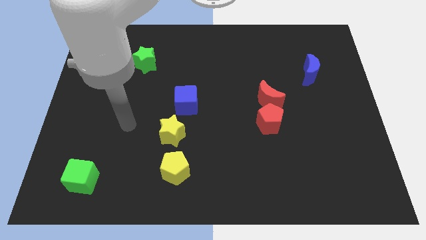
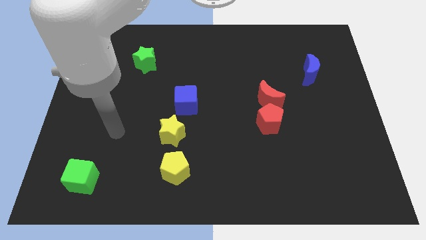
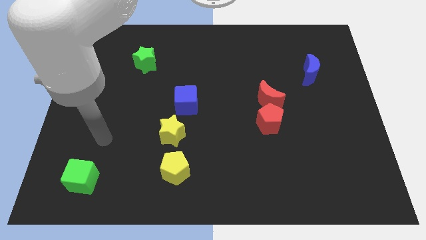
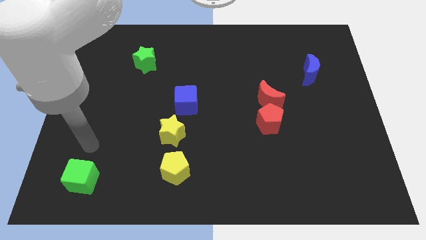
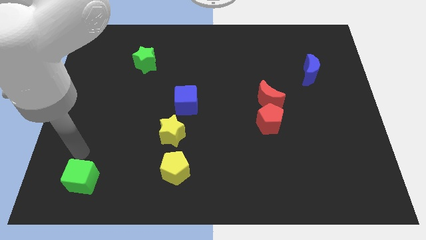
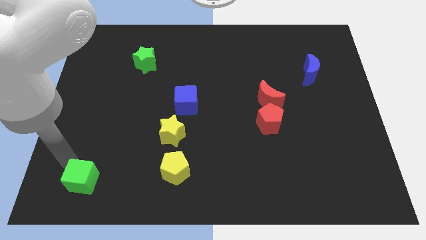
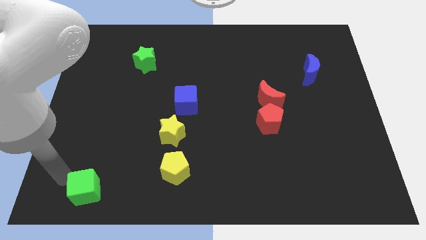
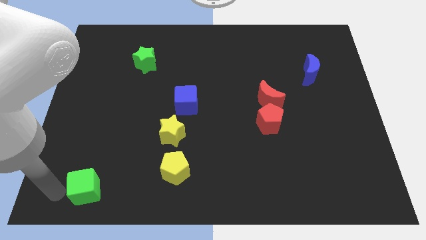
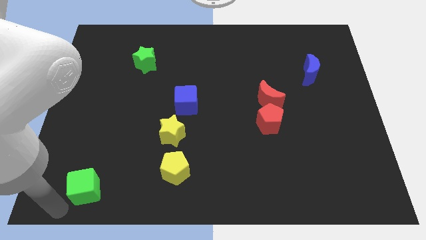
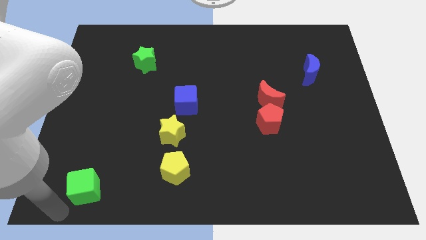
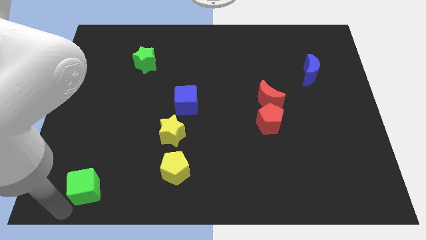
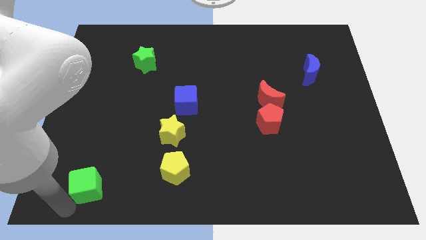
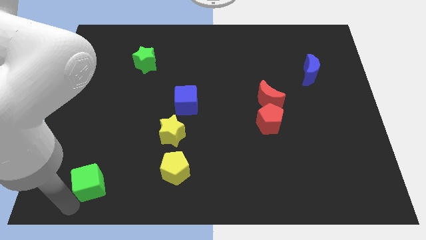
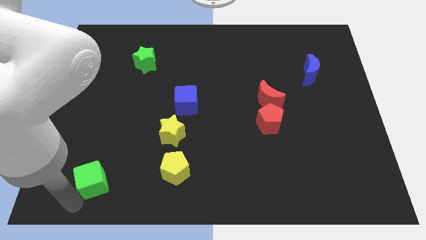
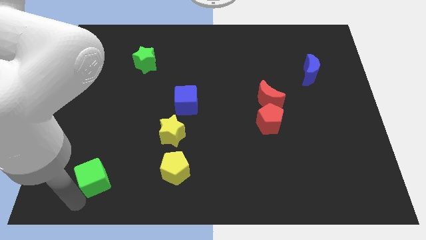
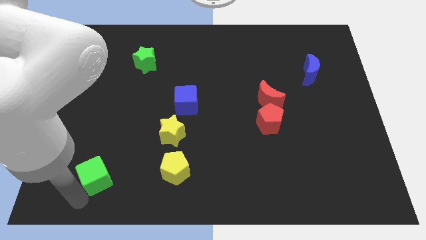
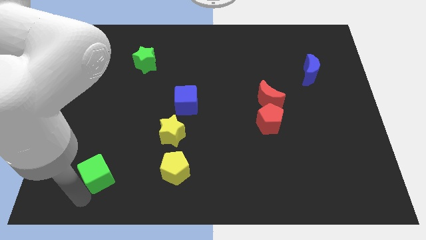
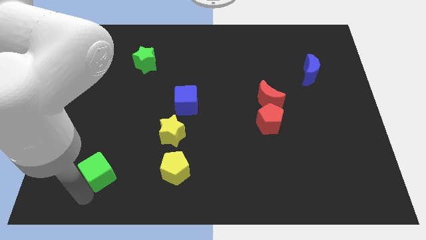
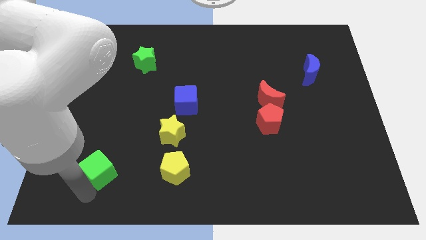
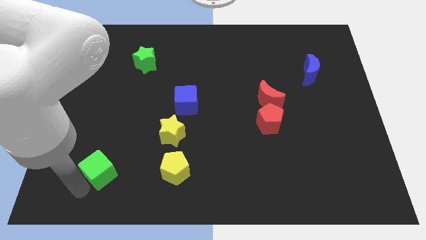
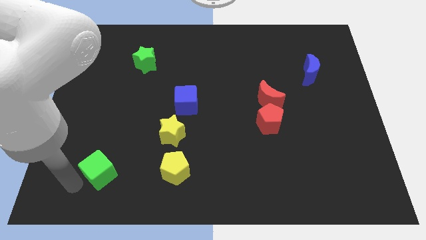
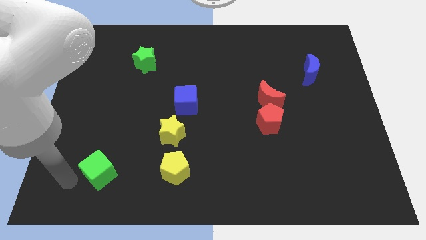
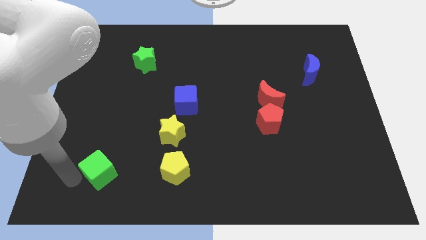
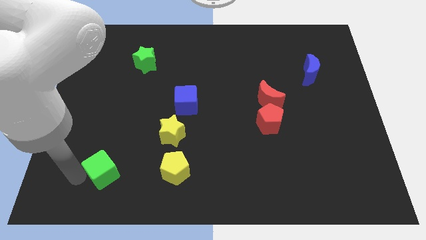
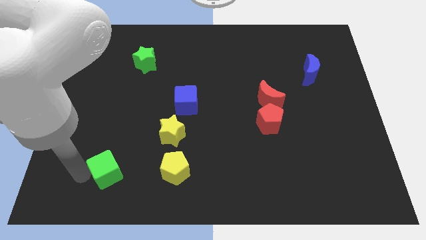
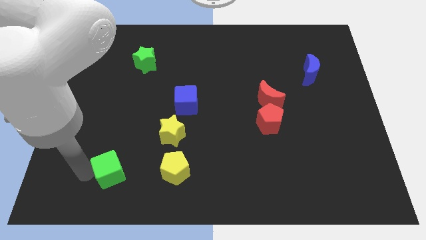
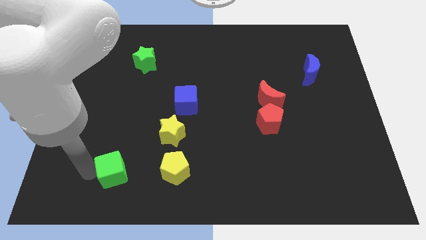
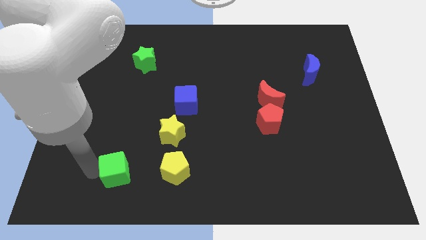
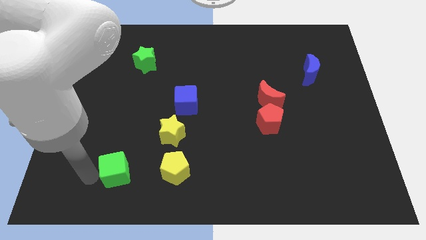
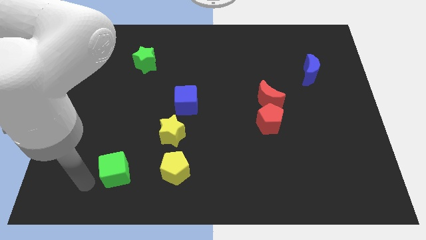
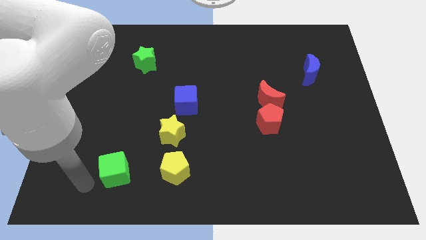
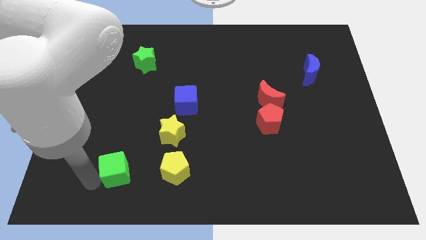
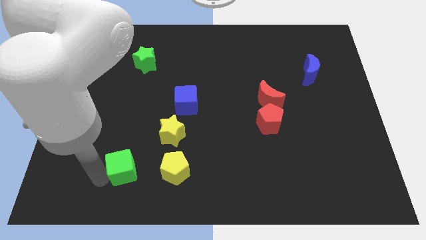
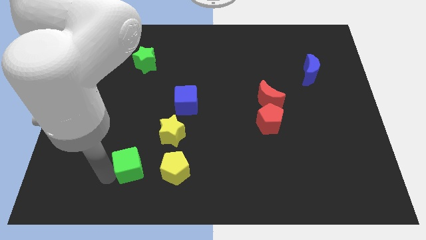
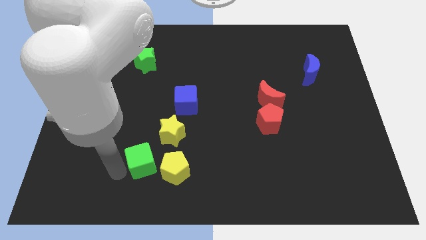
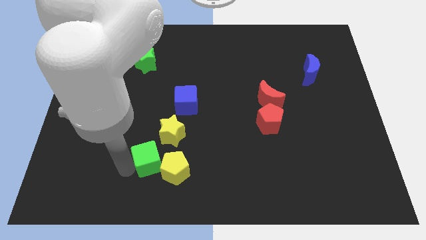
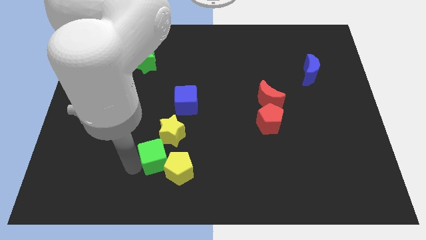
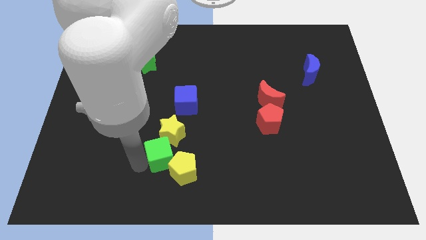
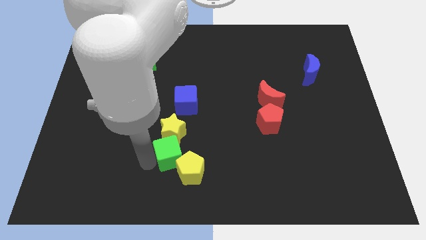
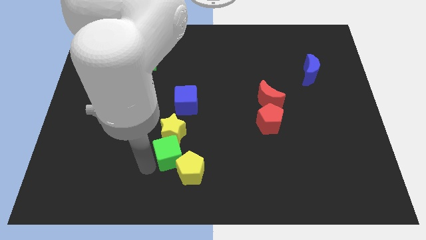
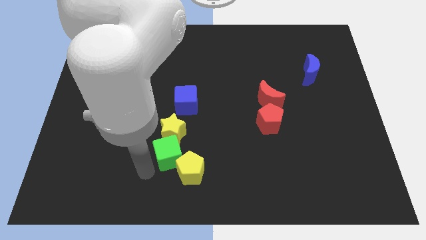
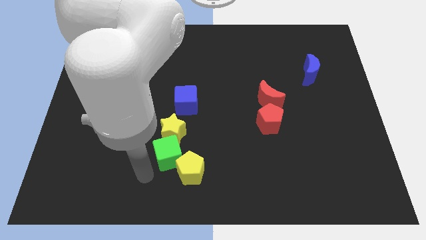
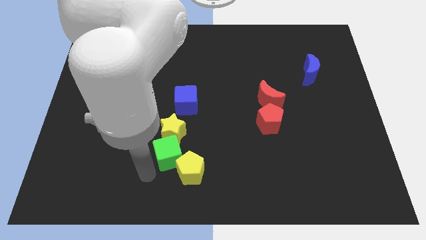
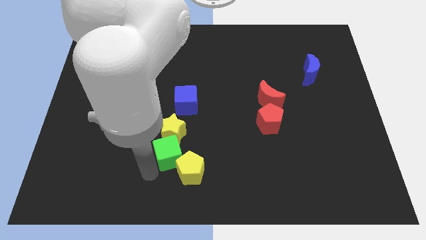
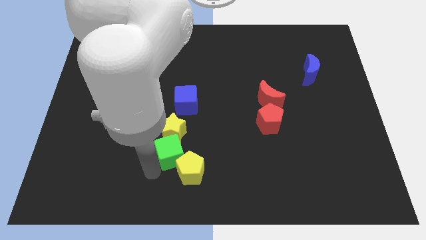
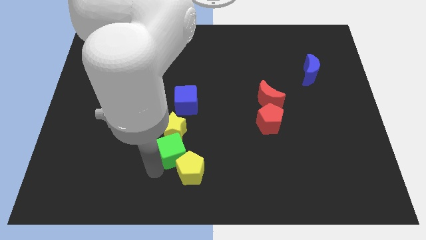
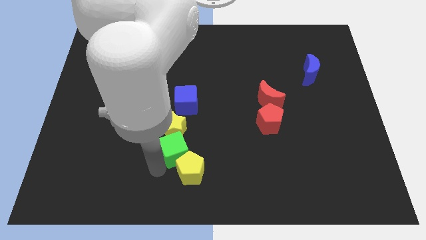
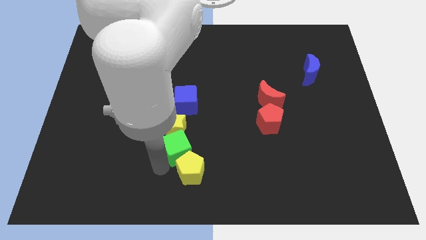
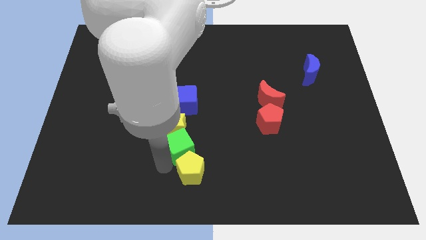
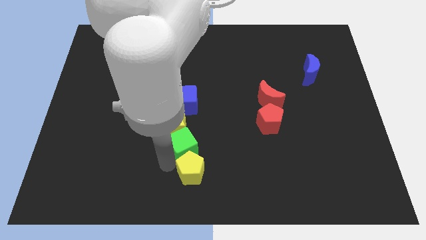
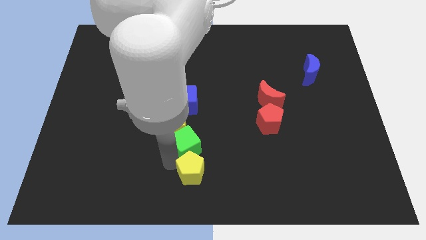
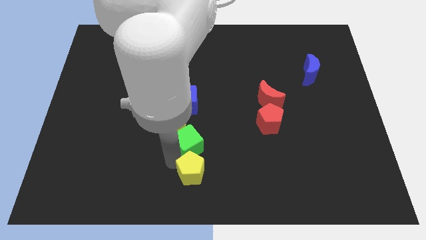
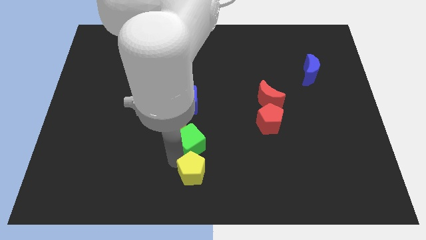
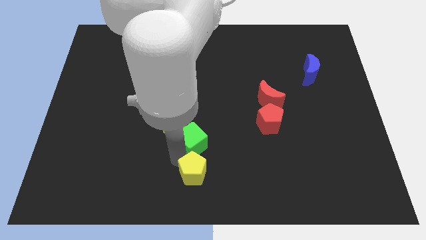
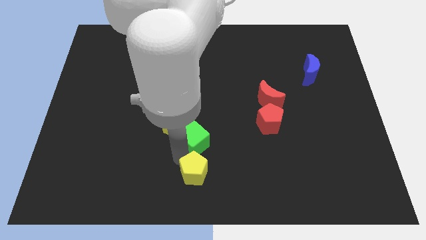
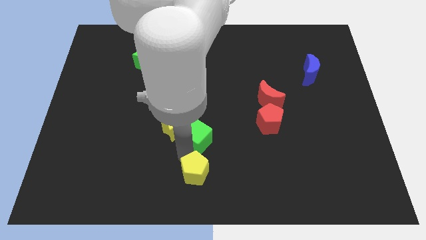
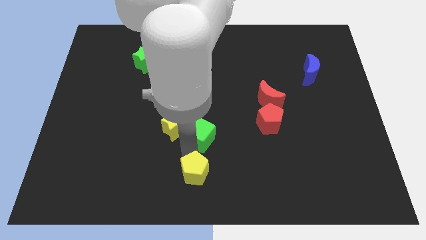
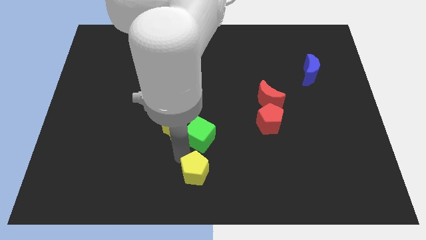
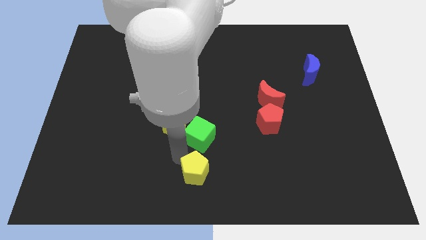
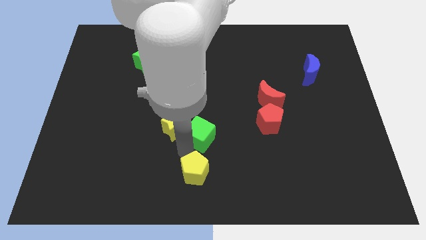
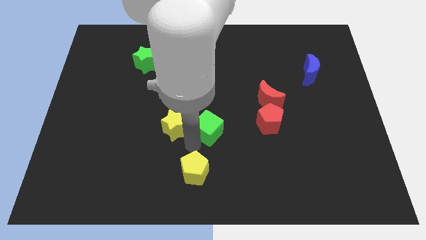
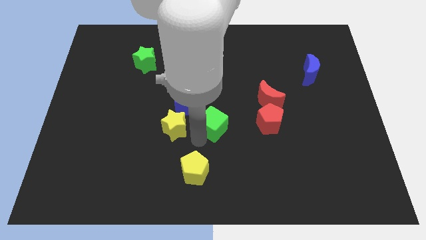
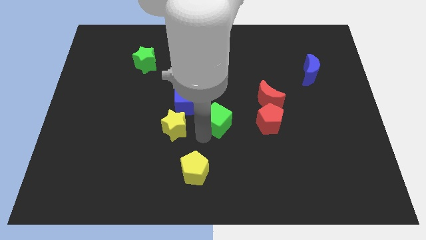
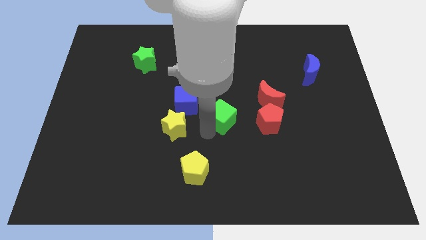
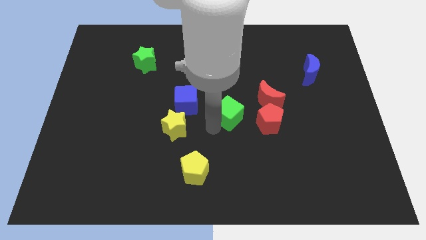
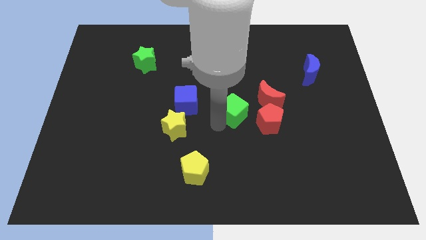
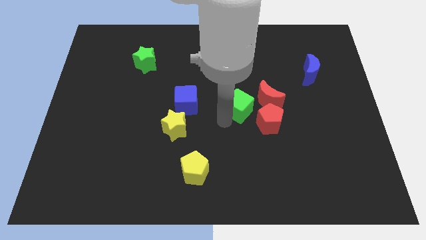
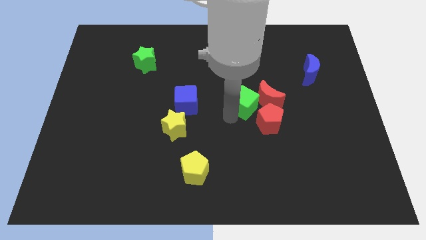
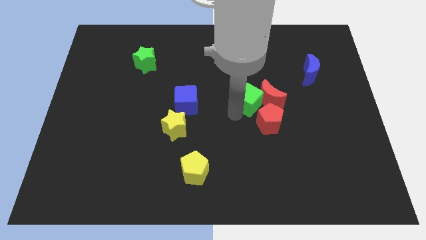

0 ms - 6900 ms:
move the green cube to the top side of the red pentagon
